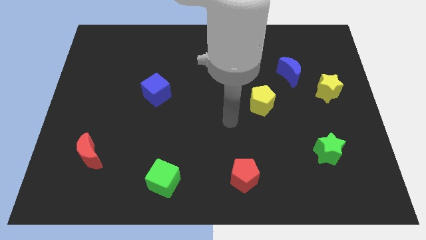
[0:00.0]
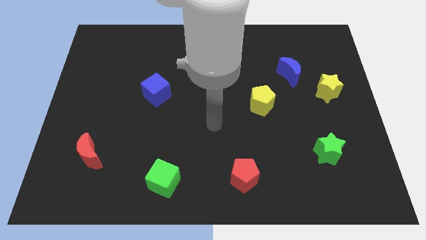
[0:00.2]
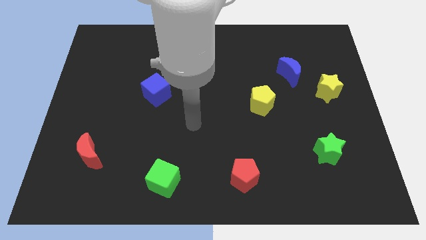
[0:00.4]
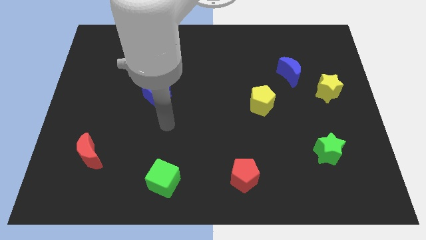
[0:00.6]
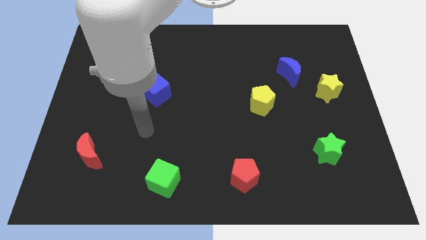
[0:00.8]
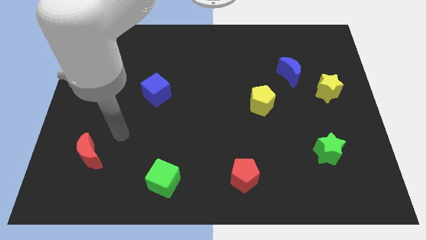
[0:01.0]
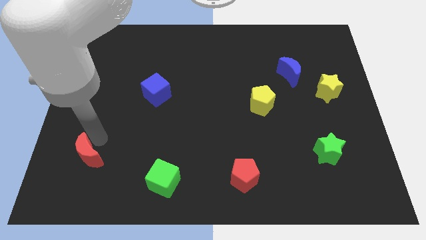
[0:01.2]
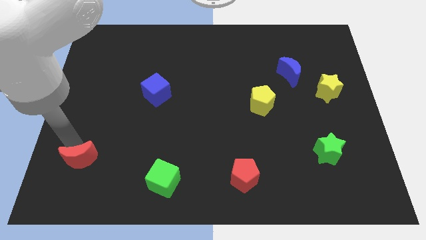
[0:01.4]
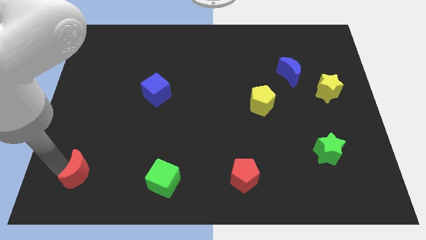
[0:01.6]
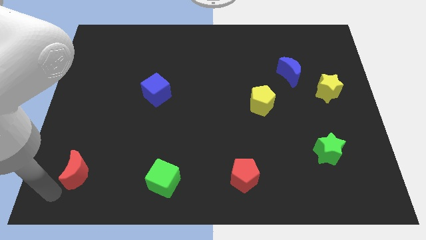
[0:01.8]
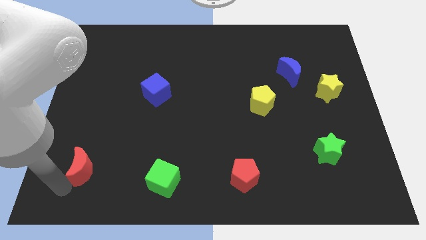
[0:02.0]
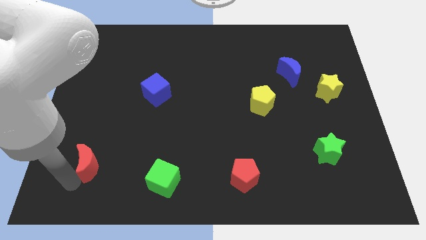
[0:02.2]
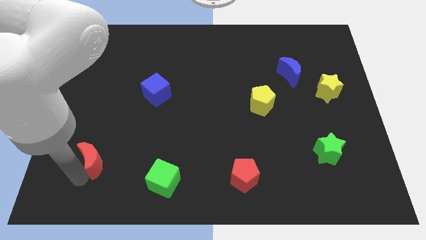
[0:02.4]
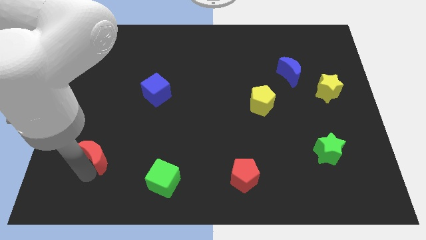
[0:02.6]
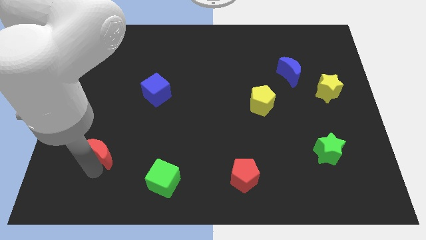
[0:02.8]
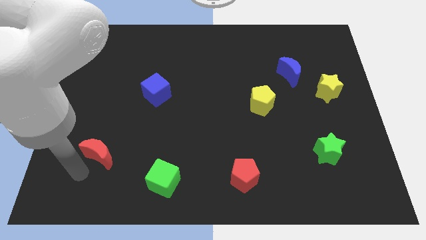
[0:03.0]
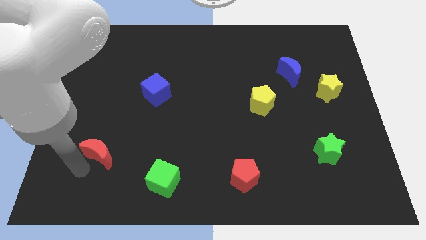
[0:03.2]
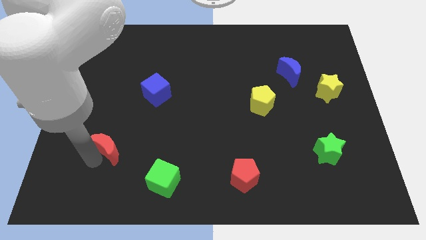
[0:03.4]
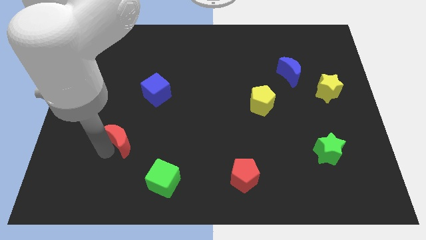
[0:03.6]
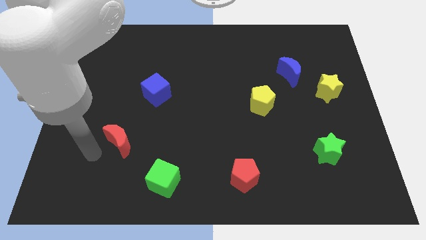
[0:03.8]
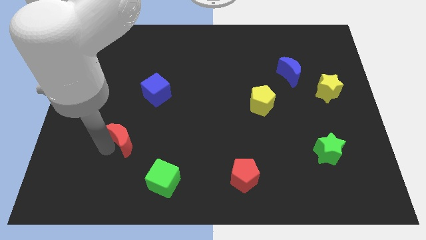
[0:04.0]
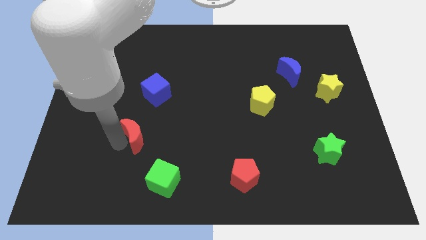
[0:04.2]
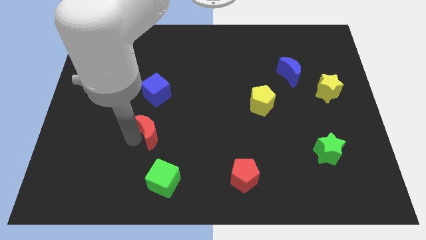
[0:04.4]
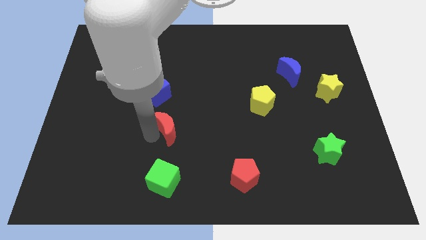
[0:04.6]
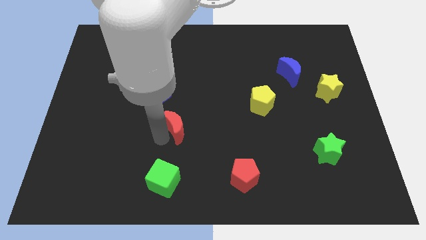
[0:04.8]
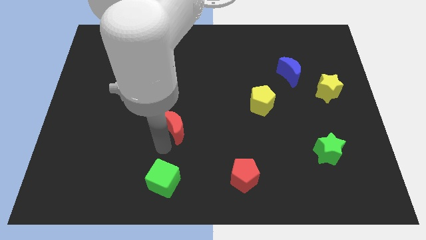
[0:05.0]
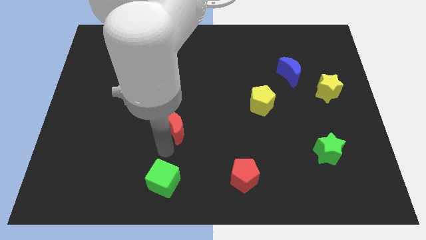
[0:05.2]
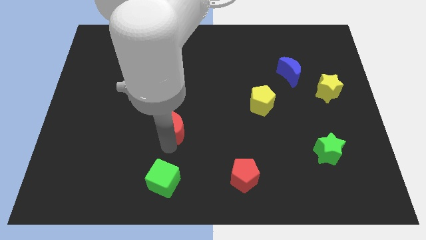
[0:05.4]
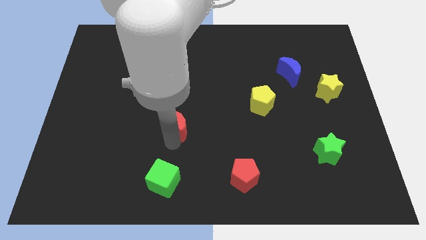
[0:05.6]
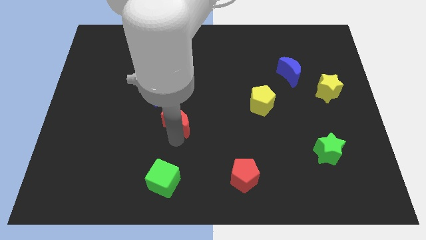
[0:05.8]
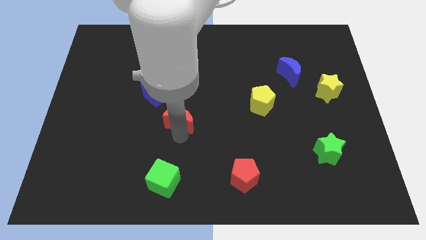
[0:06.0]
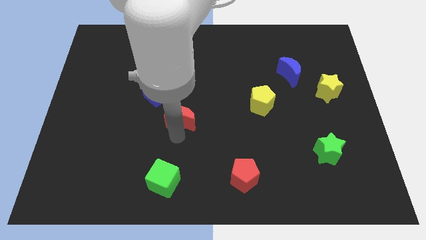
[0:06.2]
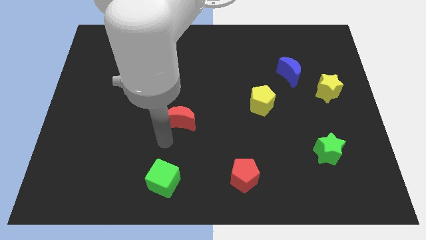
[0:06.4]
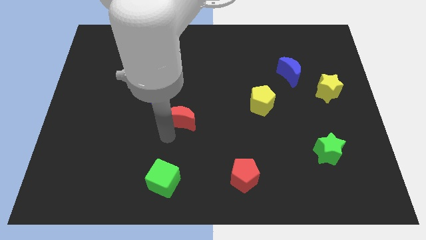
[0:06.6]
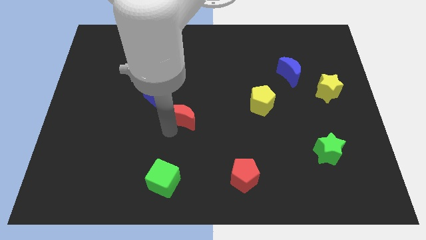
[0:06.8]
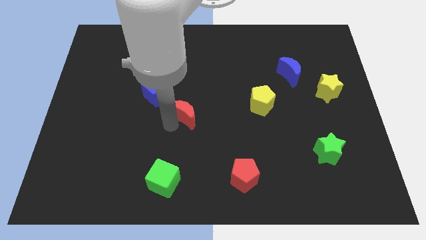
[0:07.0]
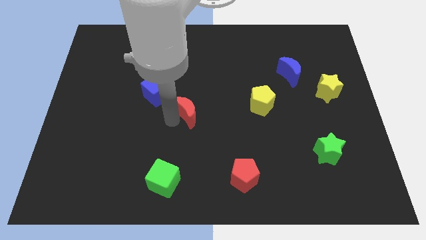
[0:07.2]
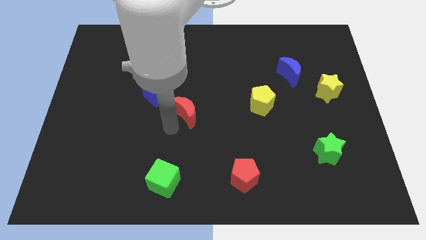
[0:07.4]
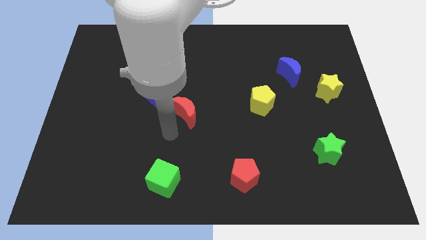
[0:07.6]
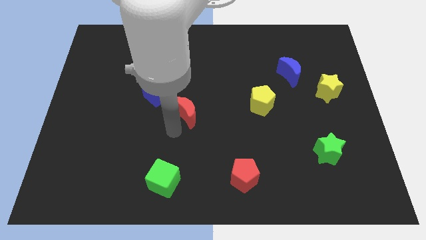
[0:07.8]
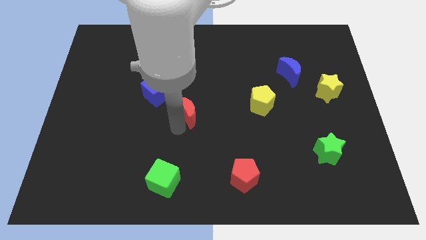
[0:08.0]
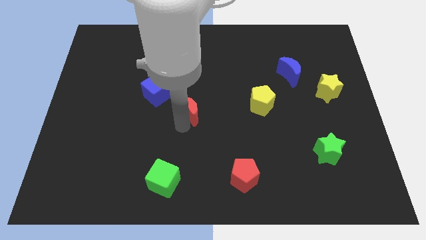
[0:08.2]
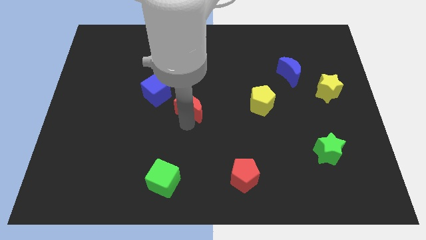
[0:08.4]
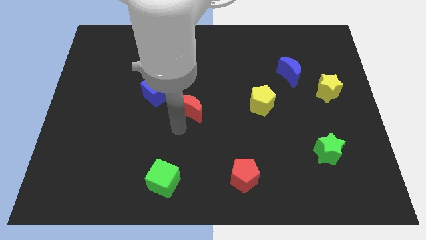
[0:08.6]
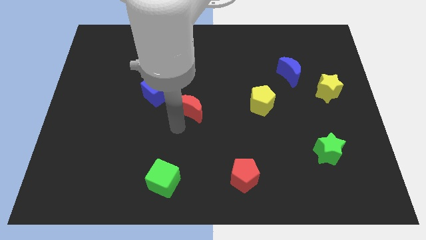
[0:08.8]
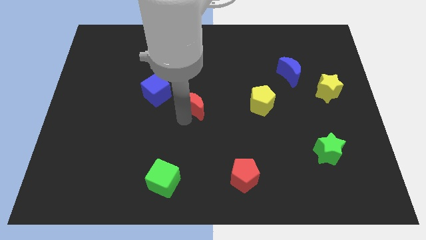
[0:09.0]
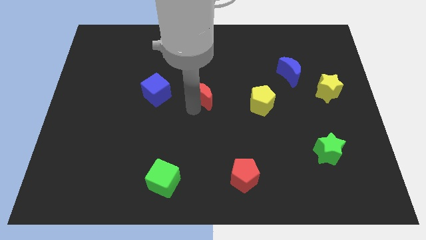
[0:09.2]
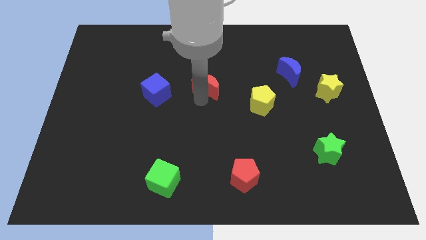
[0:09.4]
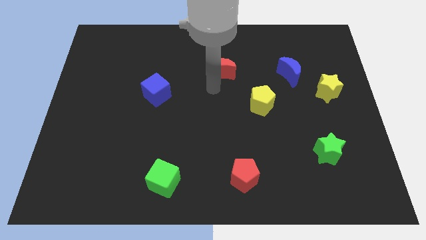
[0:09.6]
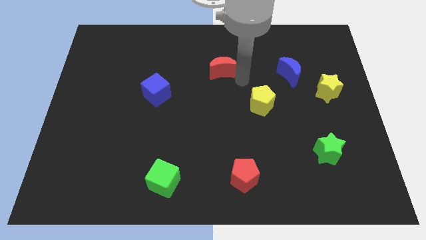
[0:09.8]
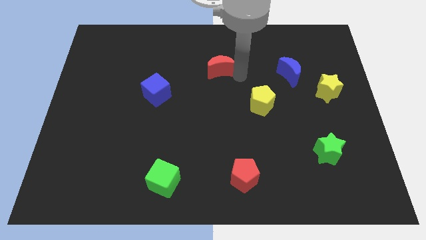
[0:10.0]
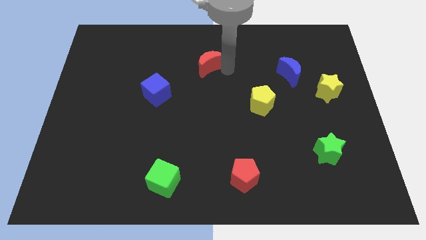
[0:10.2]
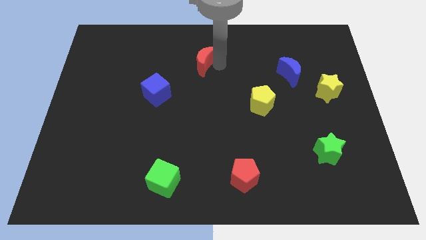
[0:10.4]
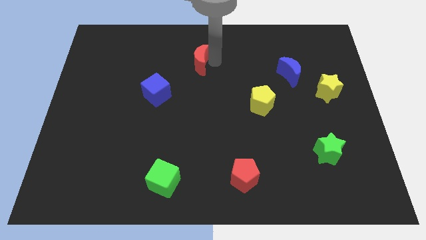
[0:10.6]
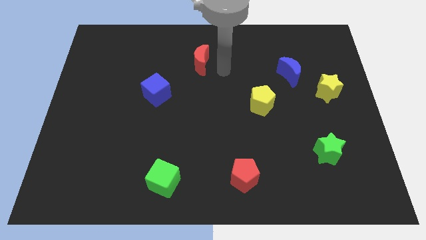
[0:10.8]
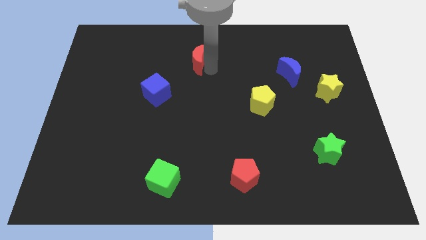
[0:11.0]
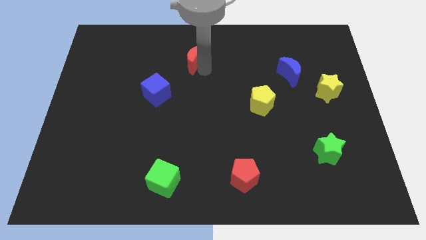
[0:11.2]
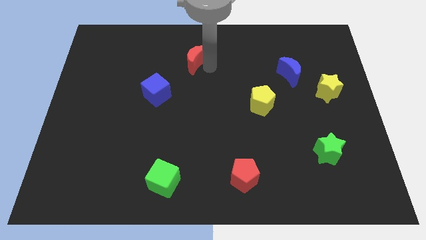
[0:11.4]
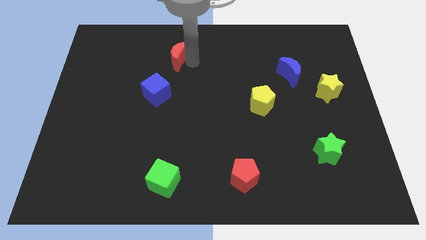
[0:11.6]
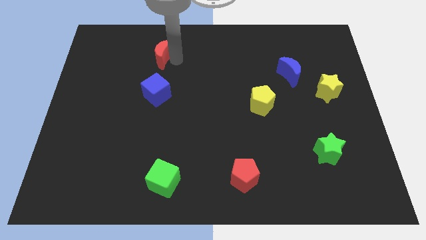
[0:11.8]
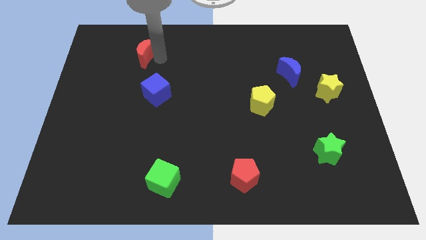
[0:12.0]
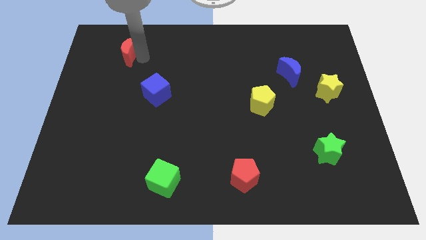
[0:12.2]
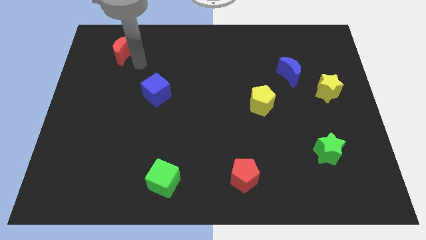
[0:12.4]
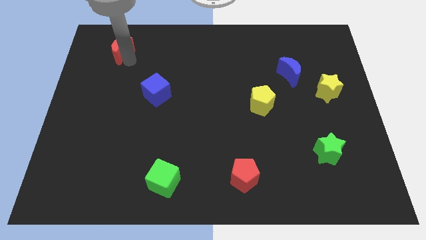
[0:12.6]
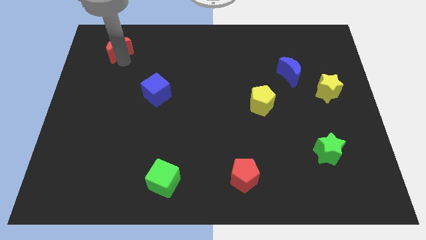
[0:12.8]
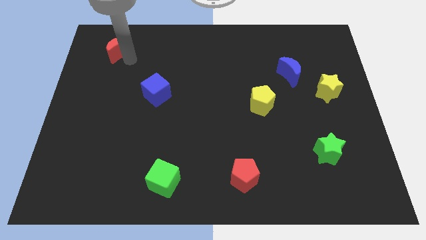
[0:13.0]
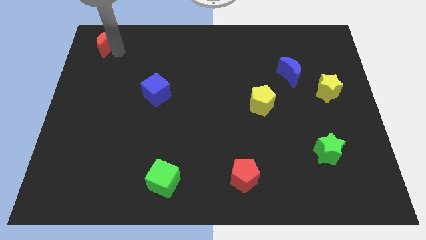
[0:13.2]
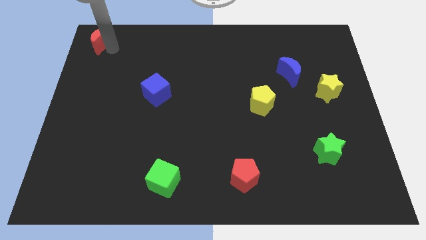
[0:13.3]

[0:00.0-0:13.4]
push the red moon to the top left corner
